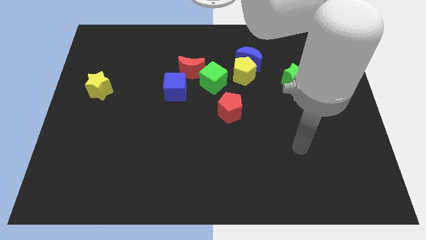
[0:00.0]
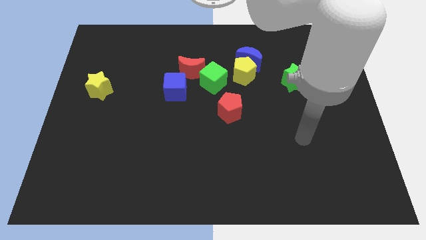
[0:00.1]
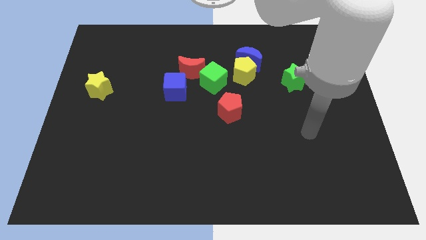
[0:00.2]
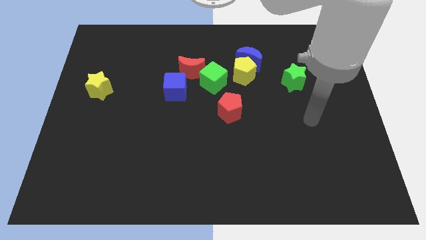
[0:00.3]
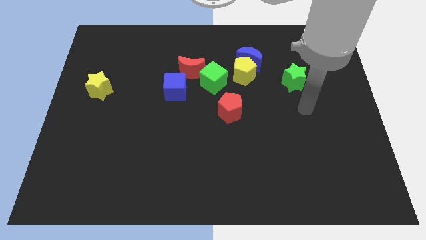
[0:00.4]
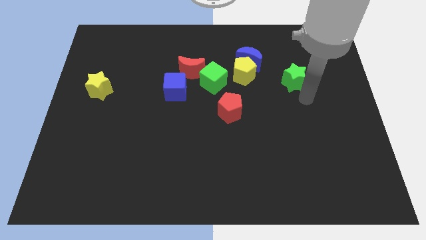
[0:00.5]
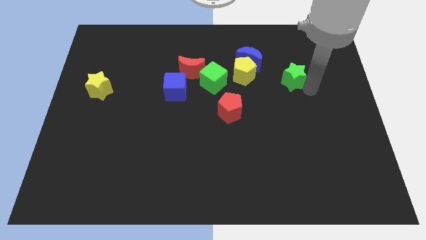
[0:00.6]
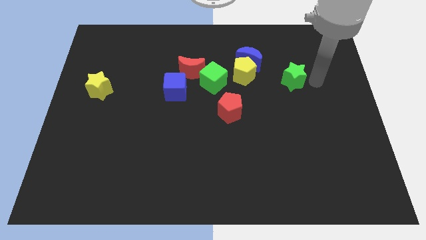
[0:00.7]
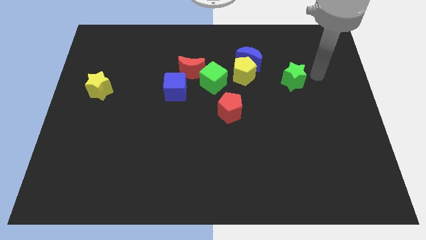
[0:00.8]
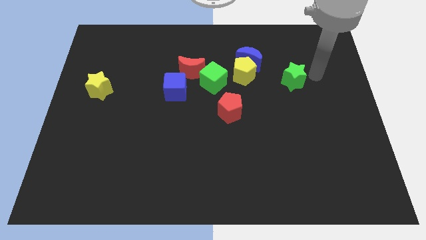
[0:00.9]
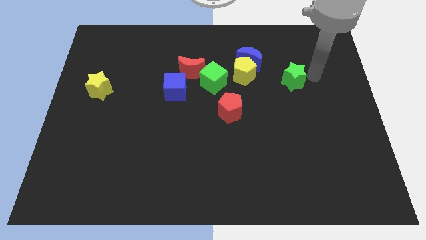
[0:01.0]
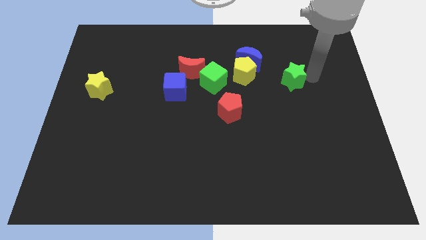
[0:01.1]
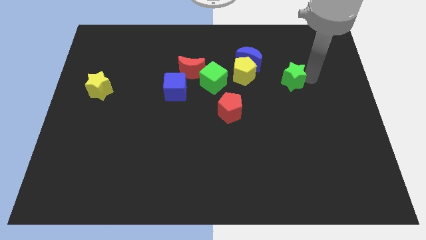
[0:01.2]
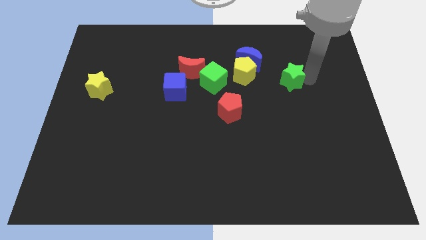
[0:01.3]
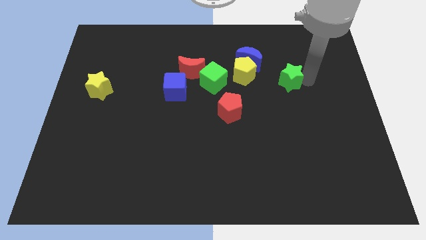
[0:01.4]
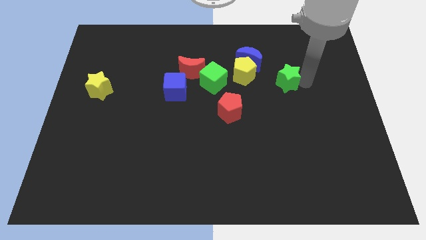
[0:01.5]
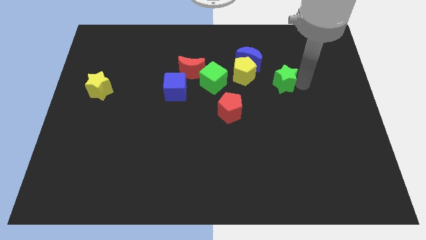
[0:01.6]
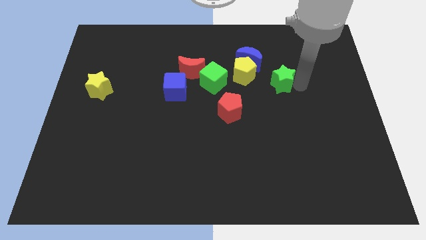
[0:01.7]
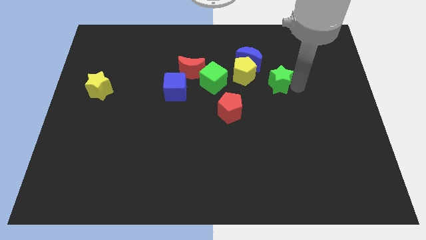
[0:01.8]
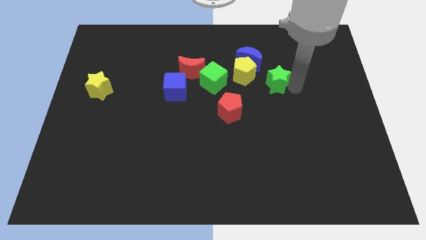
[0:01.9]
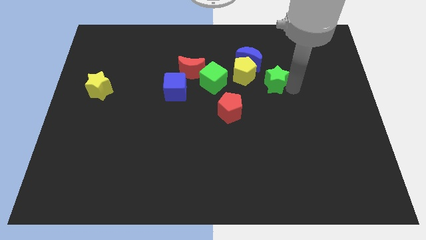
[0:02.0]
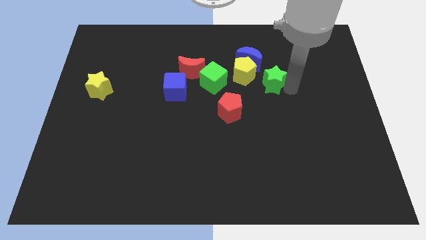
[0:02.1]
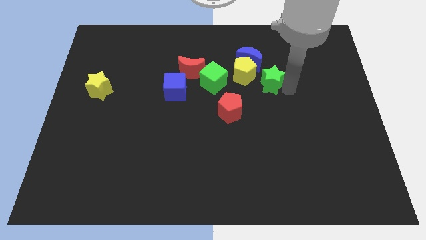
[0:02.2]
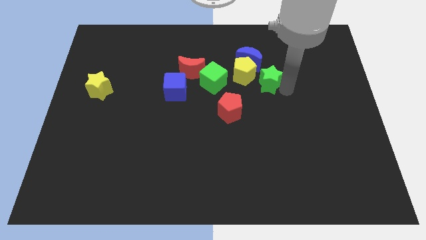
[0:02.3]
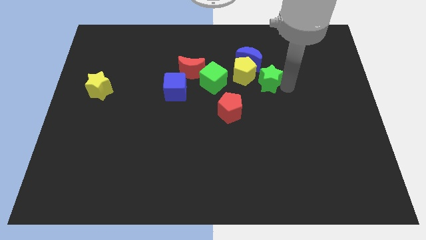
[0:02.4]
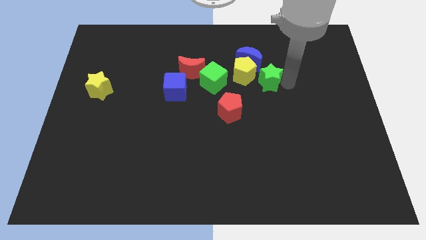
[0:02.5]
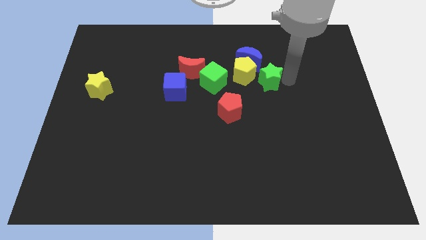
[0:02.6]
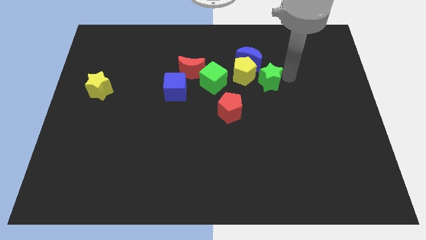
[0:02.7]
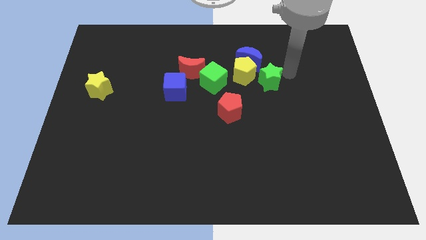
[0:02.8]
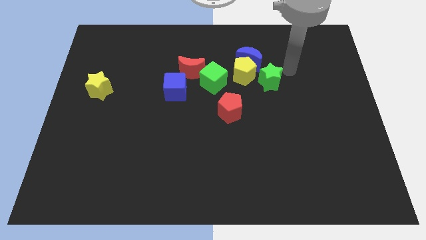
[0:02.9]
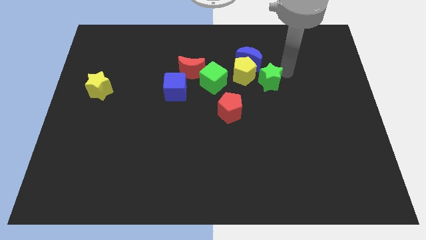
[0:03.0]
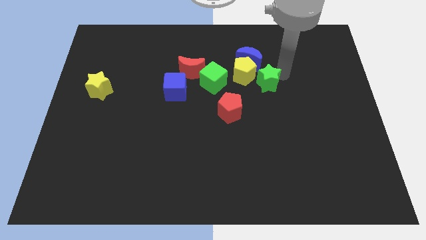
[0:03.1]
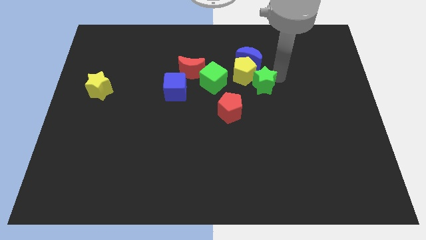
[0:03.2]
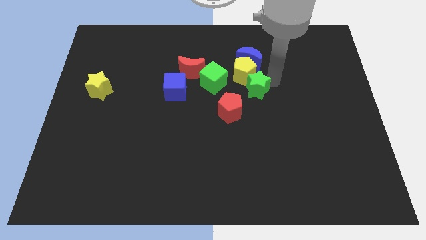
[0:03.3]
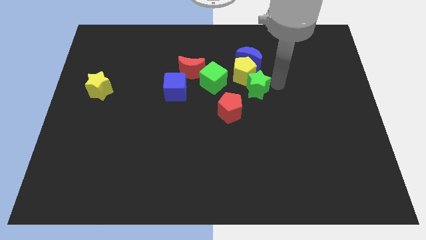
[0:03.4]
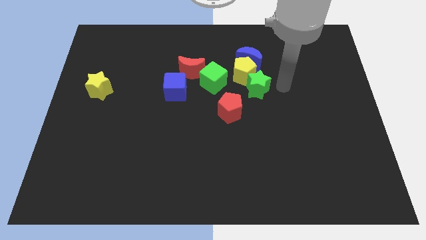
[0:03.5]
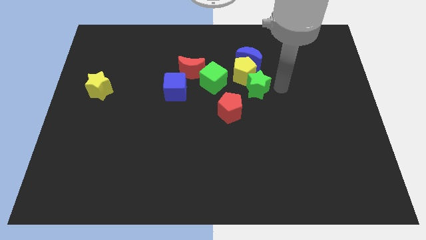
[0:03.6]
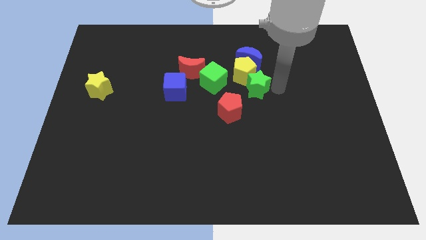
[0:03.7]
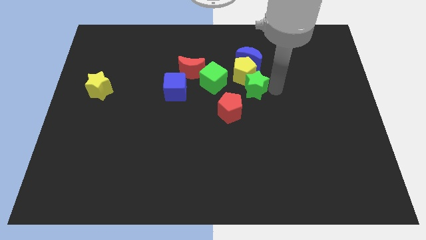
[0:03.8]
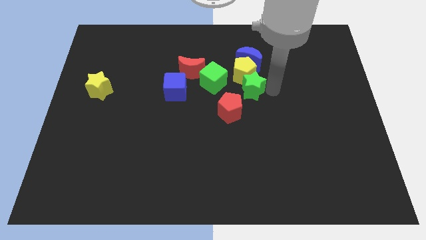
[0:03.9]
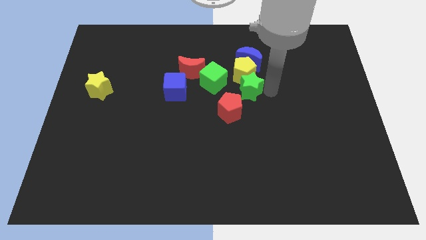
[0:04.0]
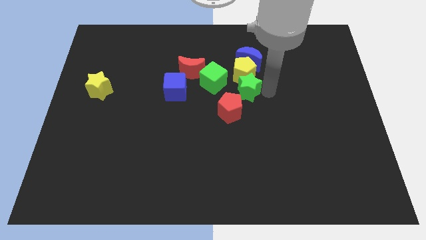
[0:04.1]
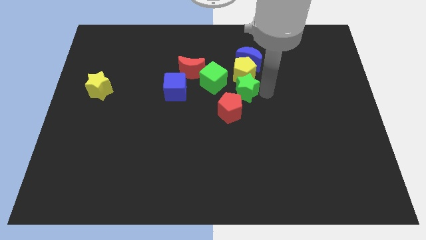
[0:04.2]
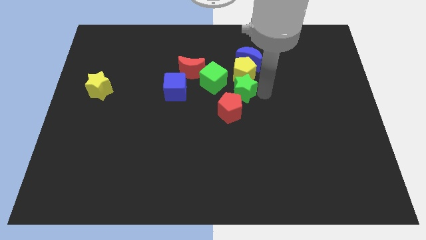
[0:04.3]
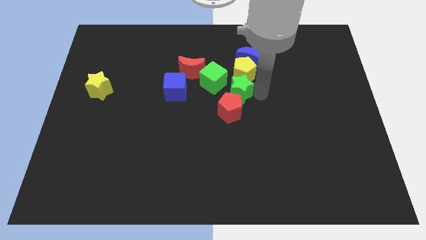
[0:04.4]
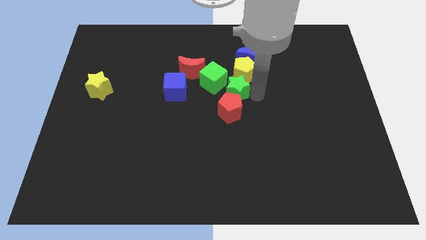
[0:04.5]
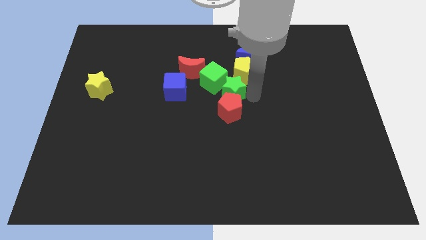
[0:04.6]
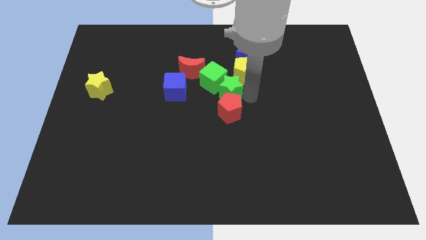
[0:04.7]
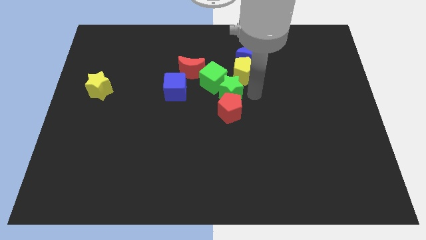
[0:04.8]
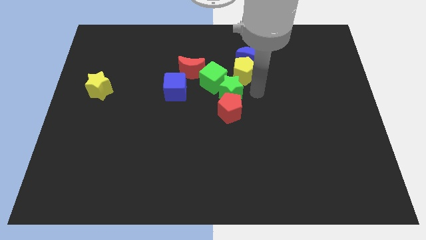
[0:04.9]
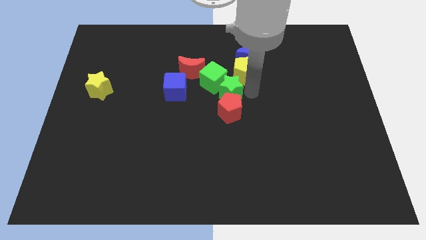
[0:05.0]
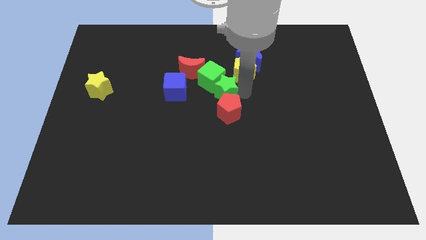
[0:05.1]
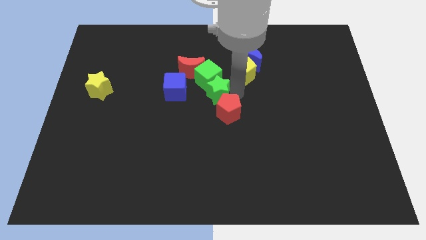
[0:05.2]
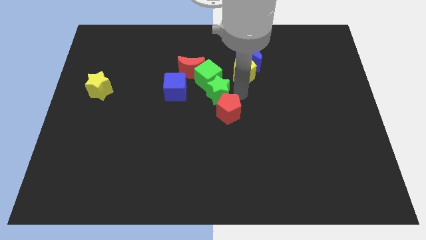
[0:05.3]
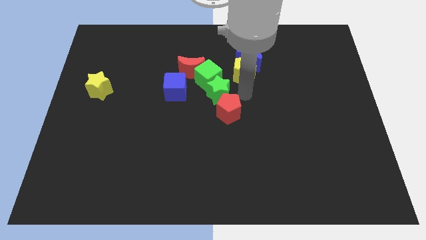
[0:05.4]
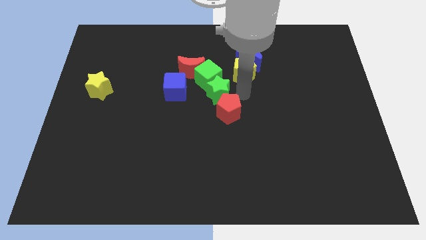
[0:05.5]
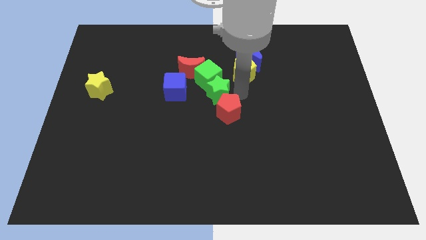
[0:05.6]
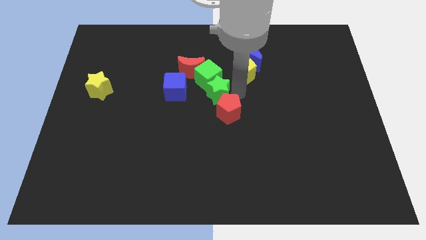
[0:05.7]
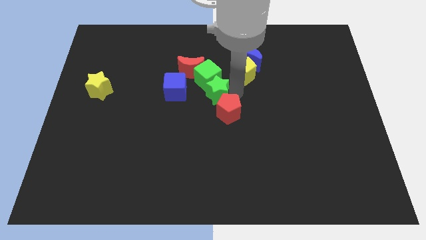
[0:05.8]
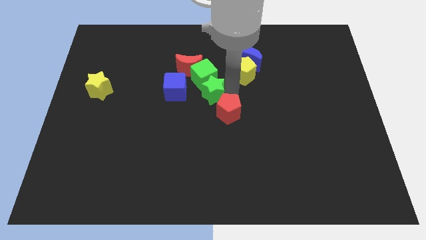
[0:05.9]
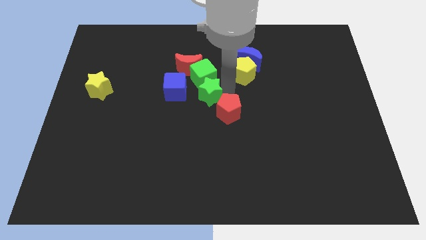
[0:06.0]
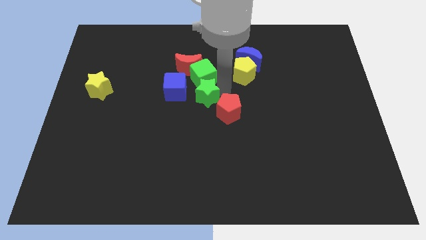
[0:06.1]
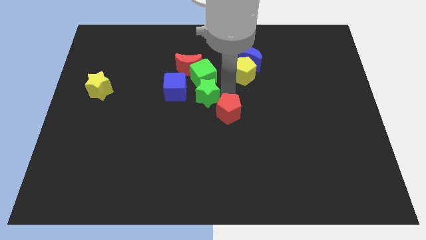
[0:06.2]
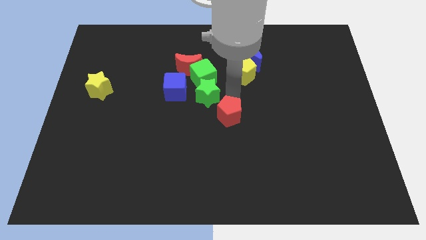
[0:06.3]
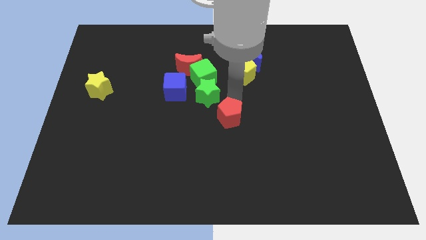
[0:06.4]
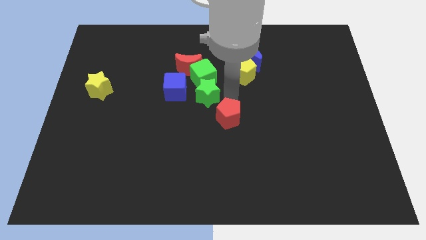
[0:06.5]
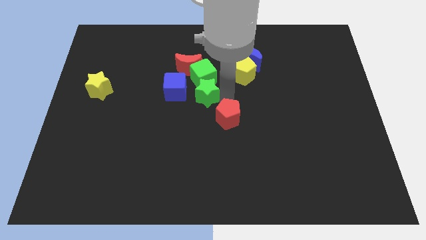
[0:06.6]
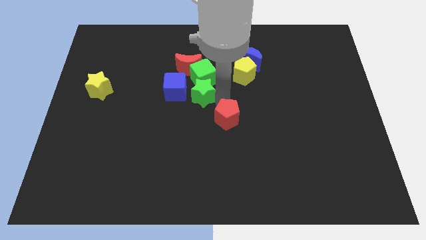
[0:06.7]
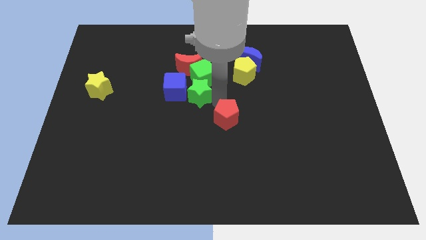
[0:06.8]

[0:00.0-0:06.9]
move the green star close to the blue cube
